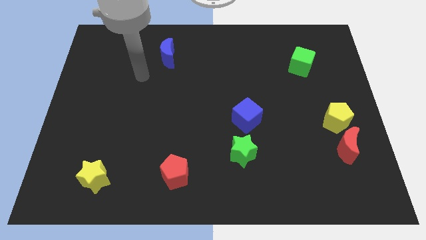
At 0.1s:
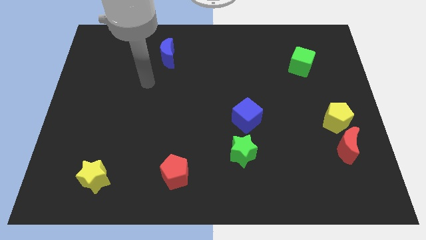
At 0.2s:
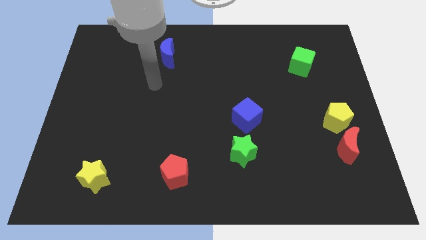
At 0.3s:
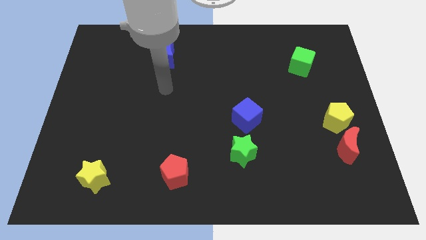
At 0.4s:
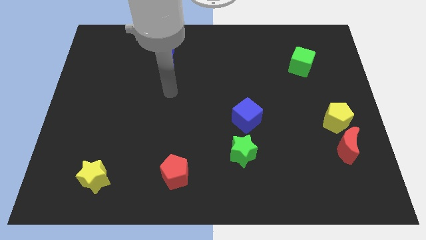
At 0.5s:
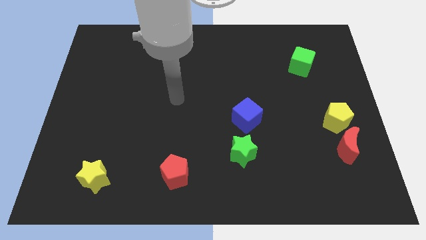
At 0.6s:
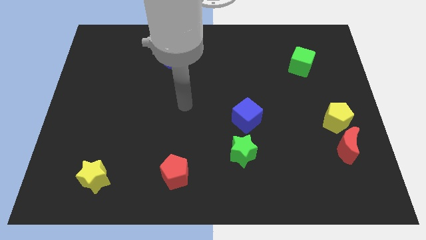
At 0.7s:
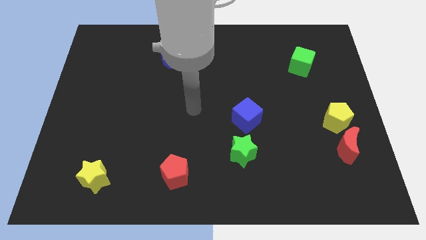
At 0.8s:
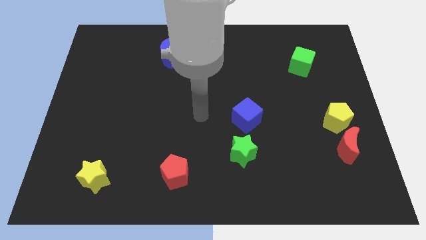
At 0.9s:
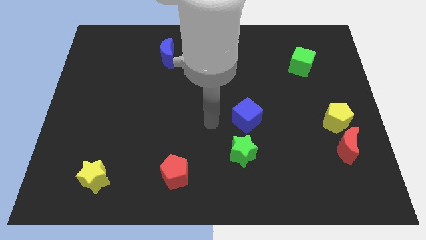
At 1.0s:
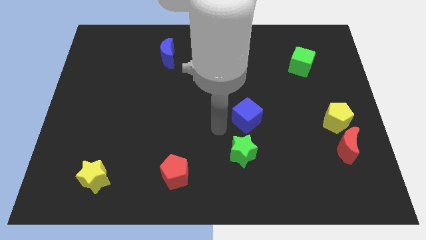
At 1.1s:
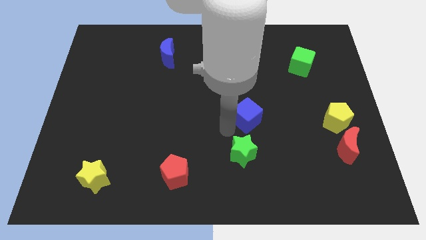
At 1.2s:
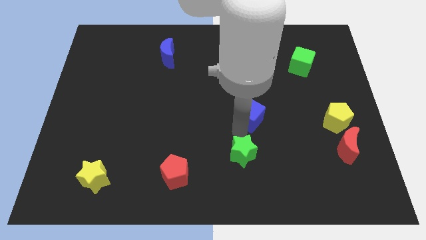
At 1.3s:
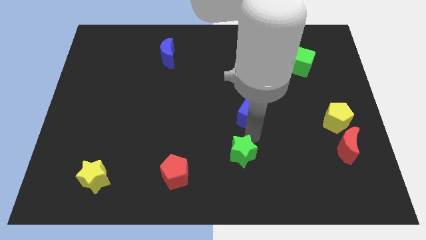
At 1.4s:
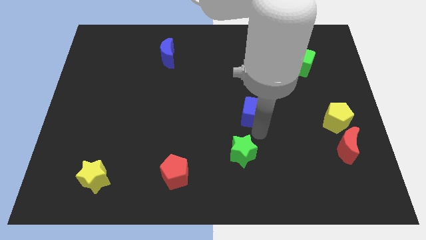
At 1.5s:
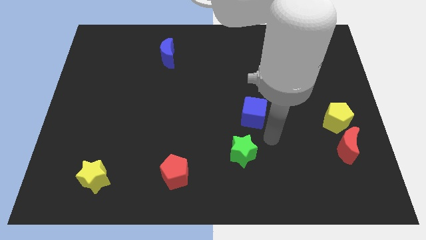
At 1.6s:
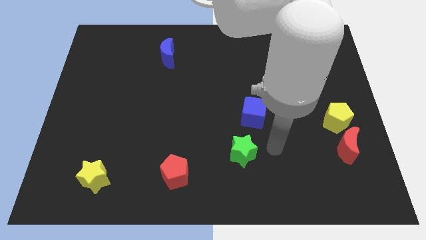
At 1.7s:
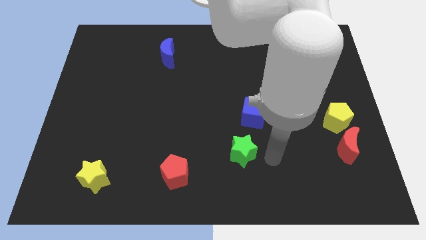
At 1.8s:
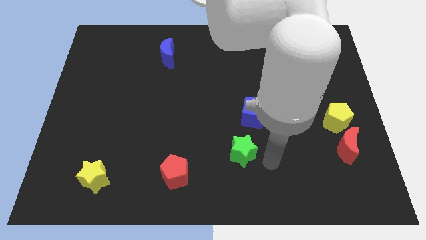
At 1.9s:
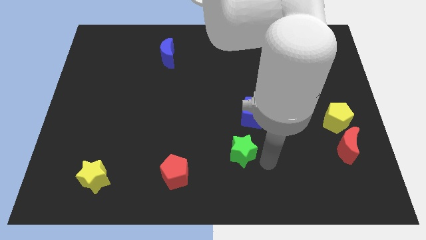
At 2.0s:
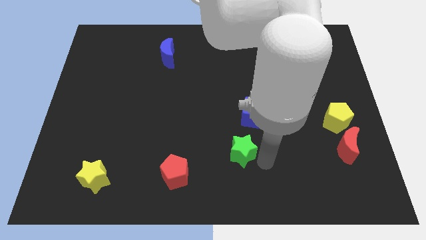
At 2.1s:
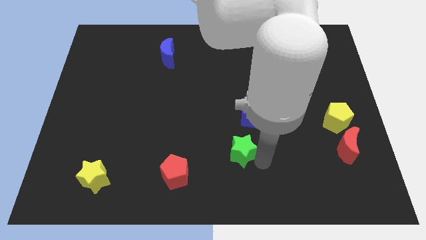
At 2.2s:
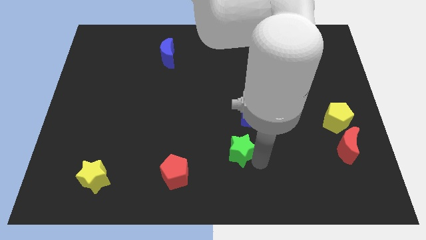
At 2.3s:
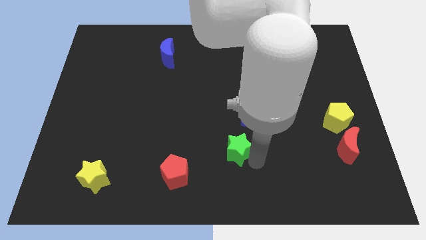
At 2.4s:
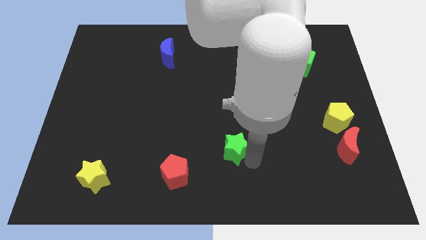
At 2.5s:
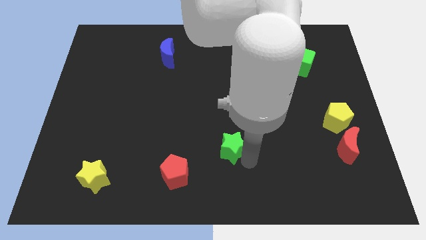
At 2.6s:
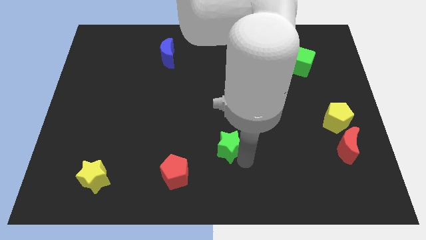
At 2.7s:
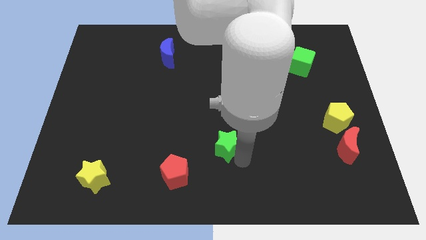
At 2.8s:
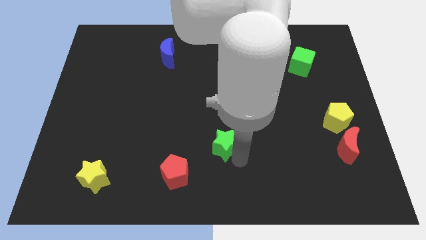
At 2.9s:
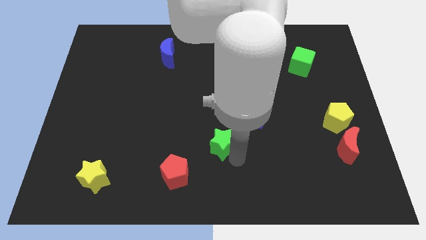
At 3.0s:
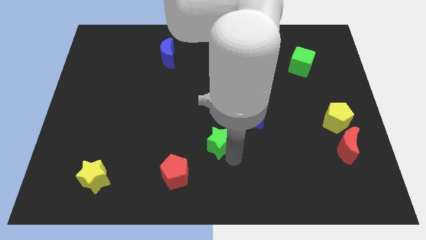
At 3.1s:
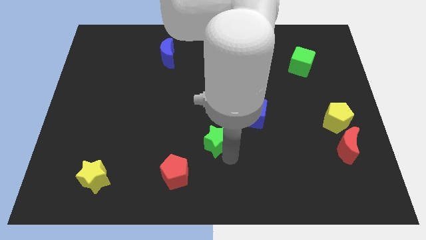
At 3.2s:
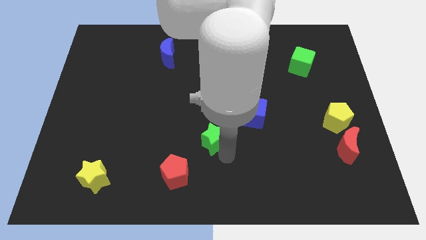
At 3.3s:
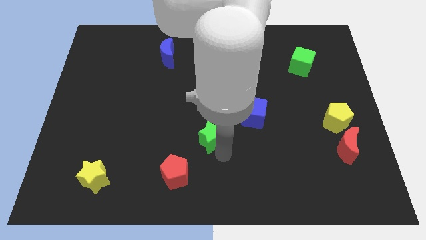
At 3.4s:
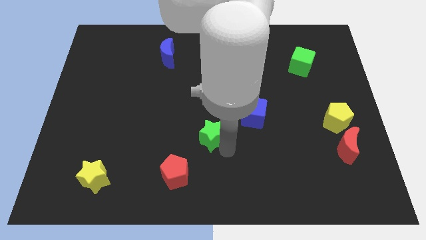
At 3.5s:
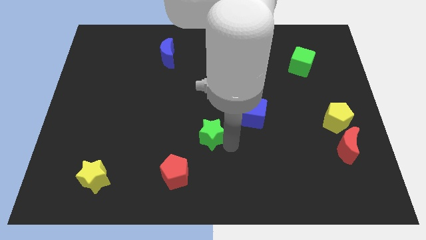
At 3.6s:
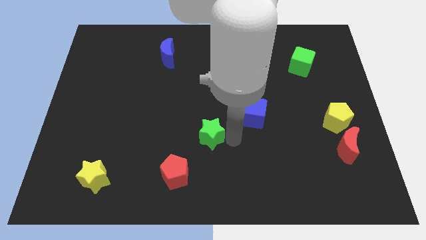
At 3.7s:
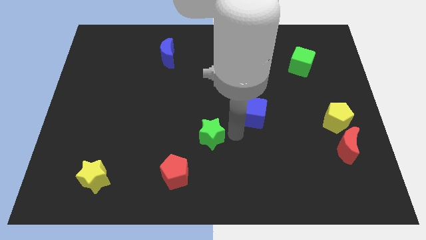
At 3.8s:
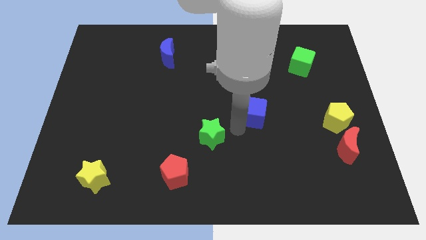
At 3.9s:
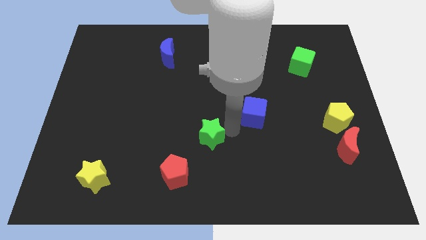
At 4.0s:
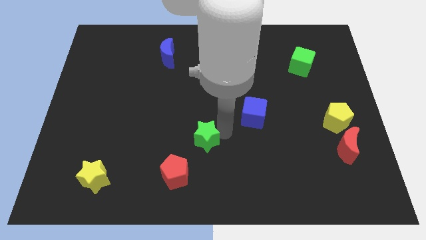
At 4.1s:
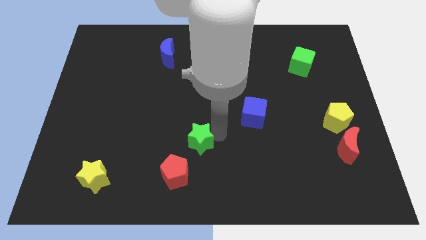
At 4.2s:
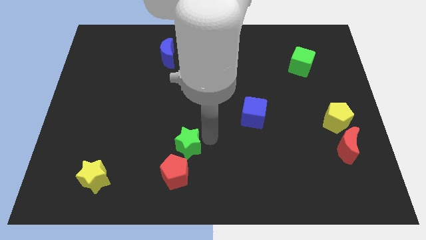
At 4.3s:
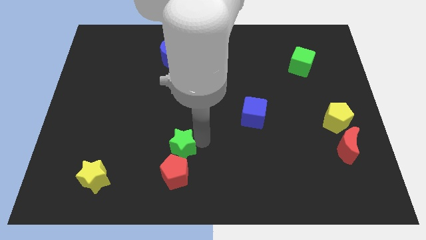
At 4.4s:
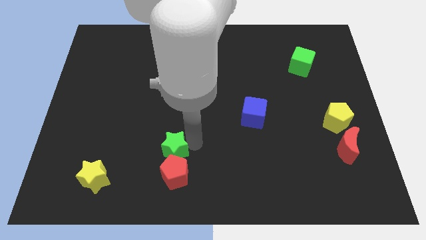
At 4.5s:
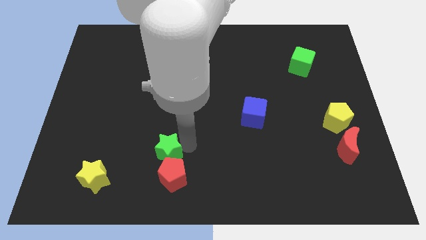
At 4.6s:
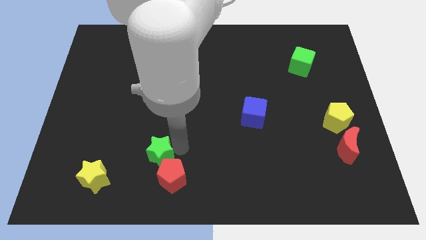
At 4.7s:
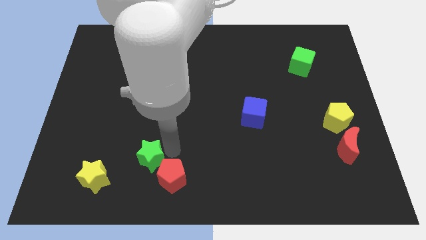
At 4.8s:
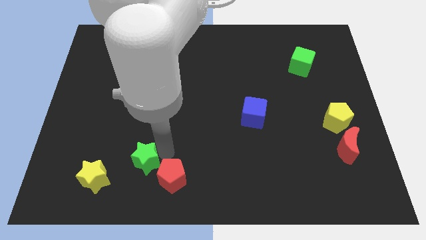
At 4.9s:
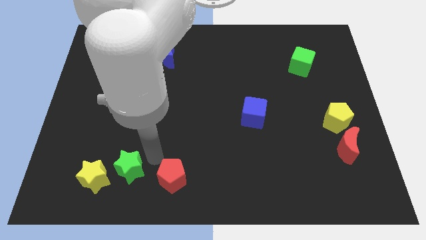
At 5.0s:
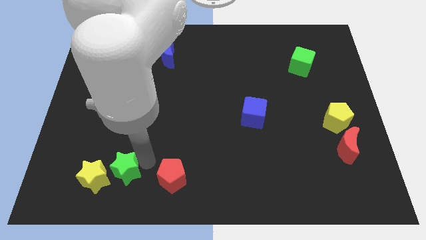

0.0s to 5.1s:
push the green star next to the yellow star

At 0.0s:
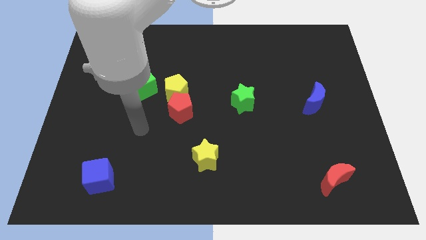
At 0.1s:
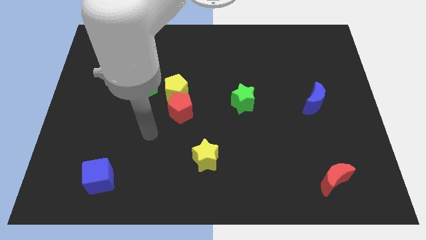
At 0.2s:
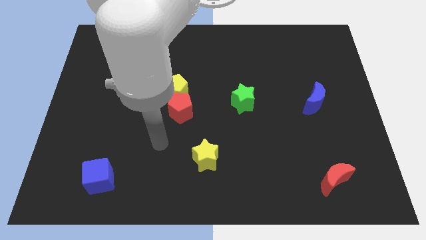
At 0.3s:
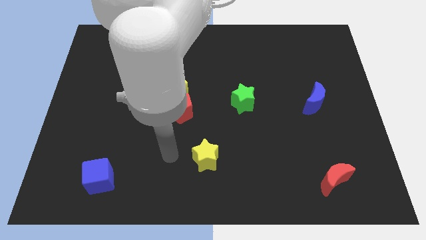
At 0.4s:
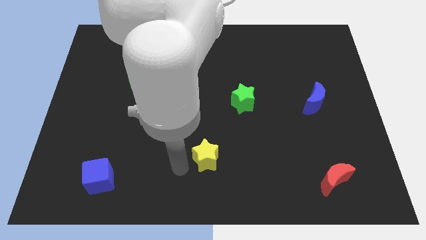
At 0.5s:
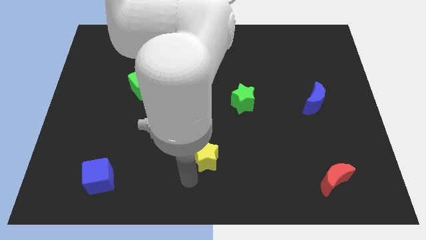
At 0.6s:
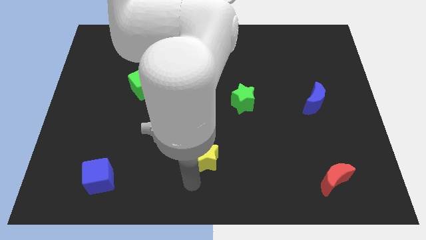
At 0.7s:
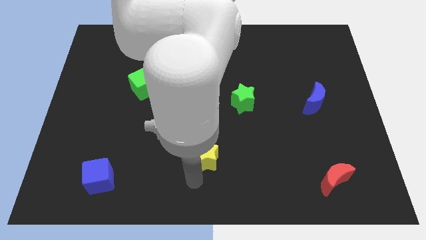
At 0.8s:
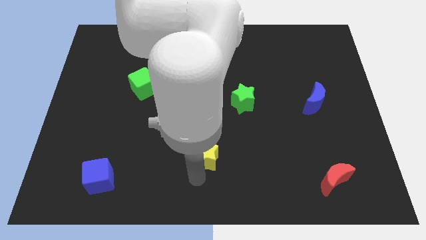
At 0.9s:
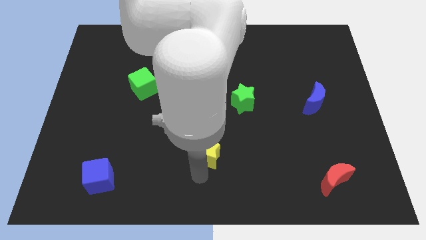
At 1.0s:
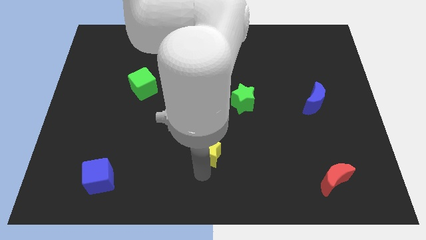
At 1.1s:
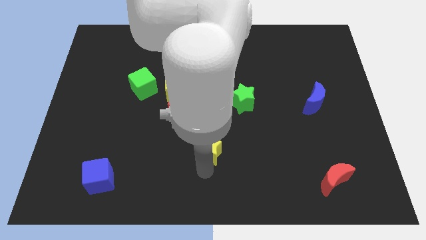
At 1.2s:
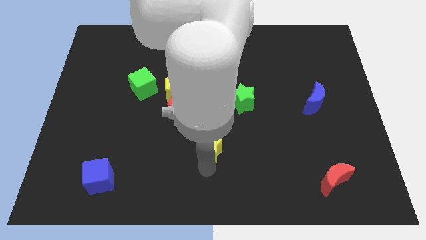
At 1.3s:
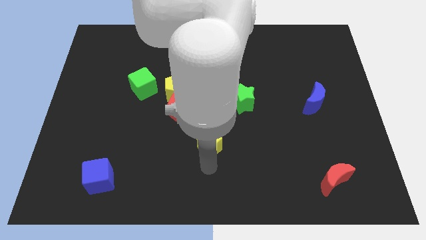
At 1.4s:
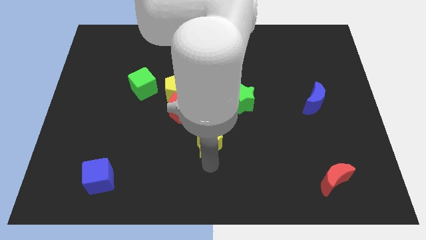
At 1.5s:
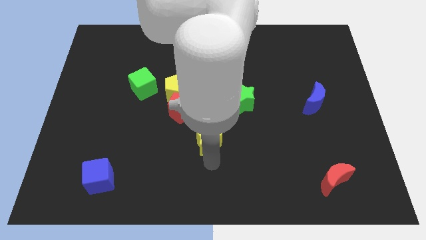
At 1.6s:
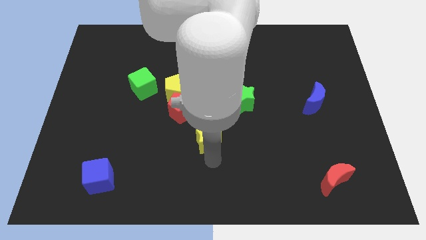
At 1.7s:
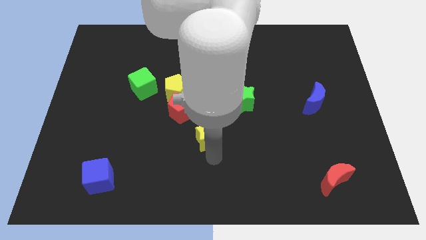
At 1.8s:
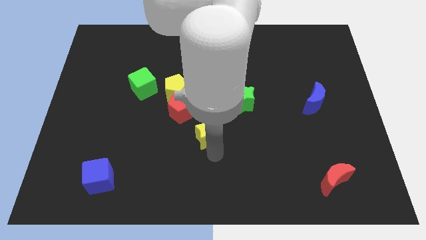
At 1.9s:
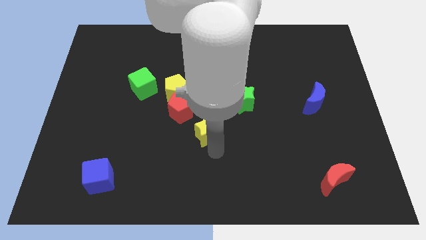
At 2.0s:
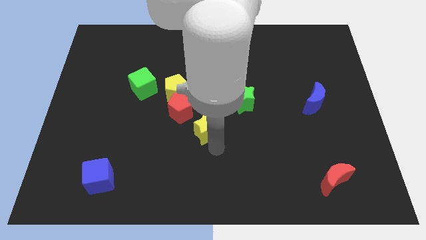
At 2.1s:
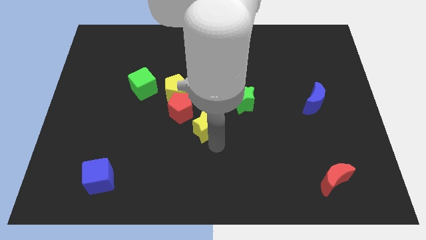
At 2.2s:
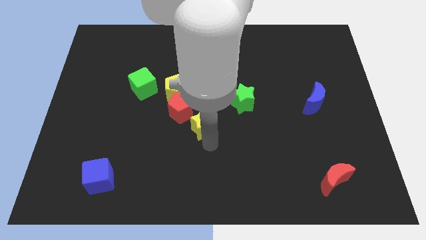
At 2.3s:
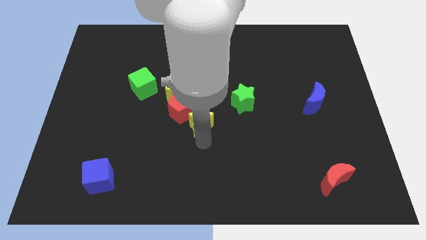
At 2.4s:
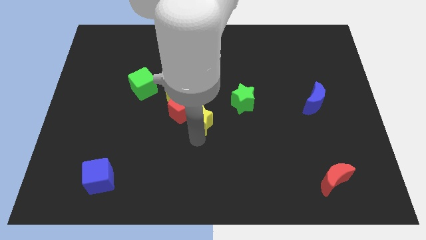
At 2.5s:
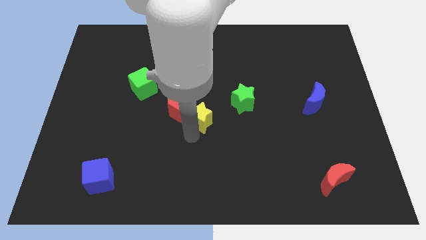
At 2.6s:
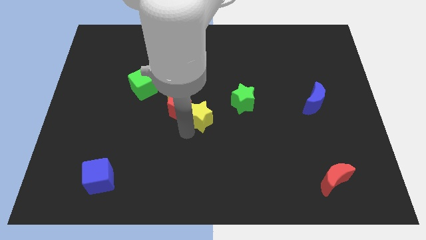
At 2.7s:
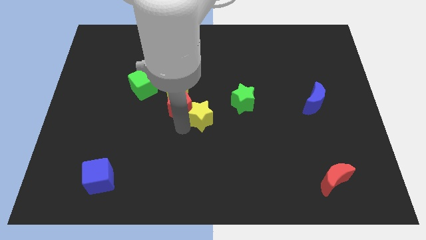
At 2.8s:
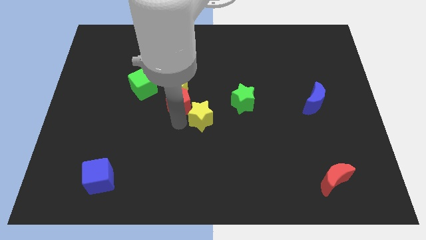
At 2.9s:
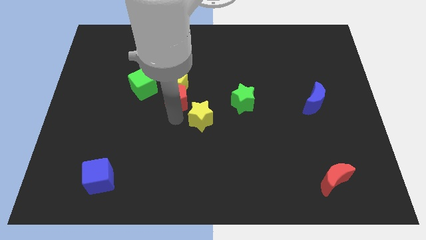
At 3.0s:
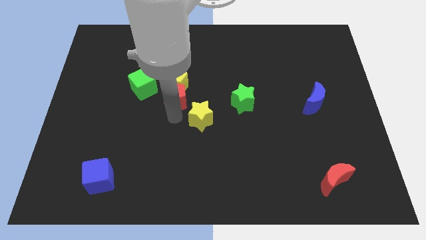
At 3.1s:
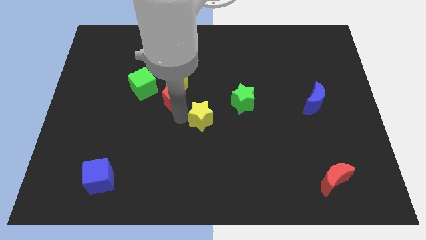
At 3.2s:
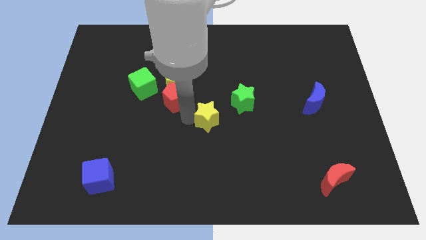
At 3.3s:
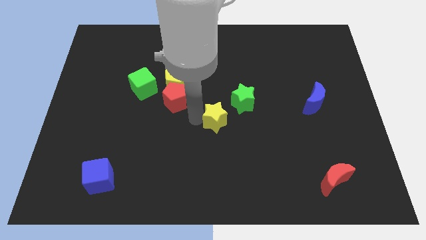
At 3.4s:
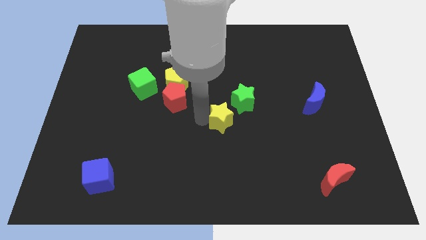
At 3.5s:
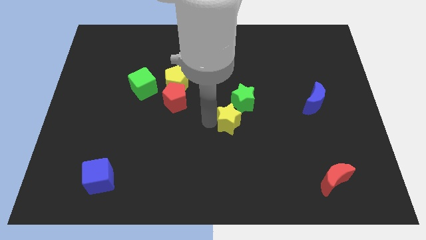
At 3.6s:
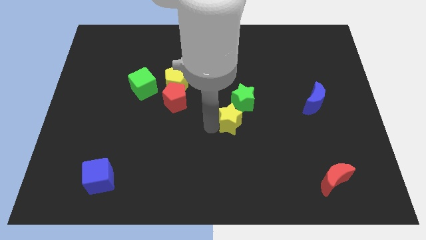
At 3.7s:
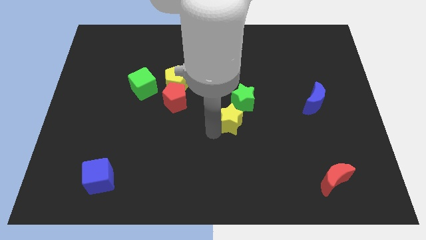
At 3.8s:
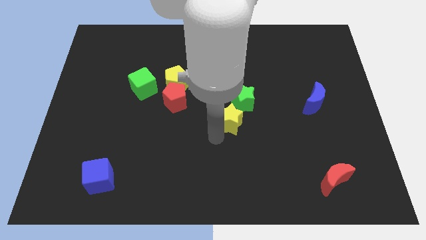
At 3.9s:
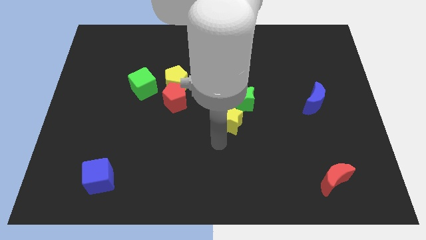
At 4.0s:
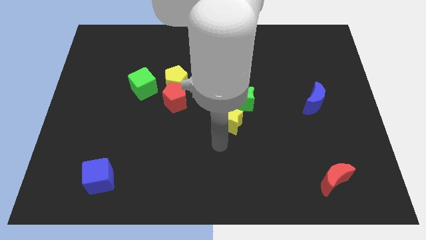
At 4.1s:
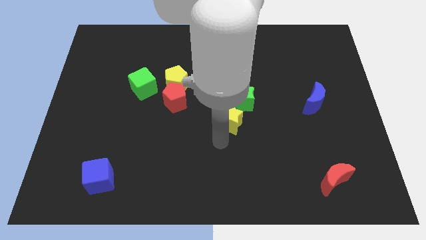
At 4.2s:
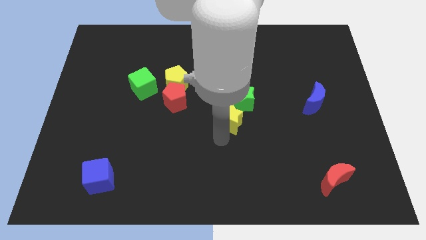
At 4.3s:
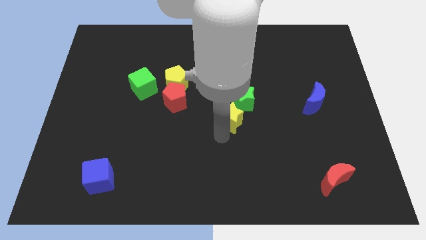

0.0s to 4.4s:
move the yellow star towards the green star
